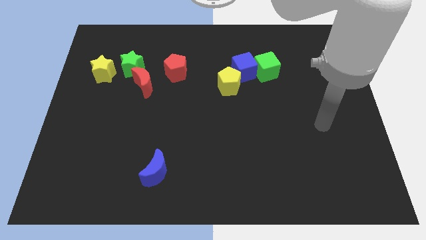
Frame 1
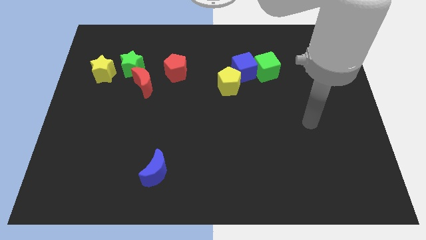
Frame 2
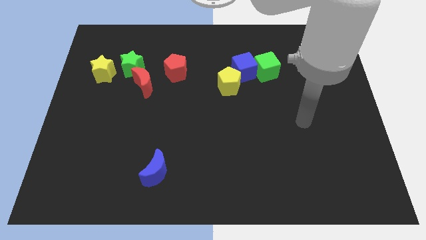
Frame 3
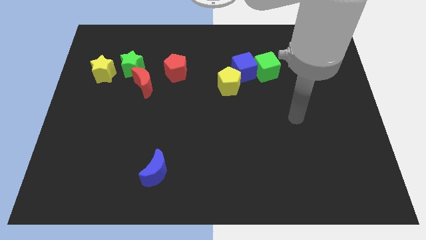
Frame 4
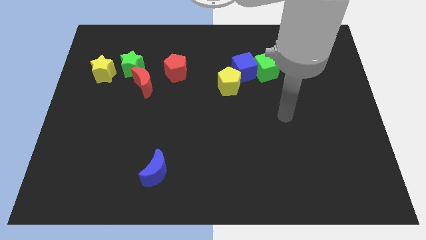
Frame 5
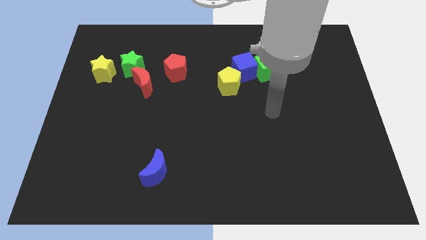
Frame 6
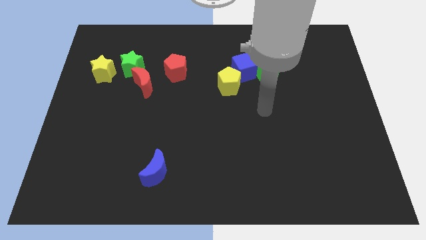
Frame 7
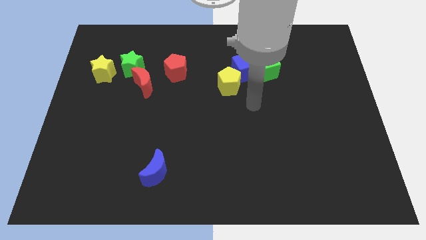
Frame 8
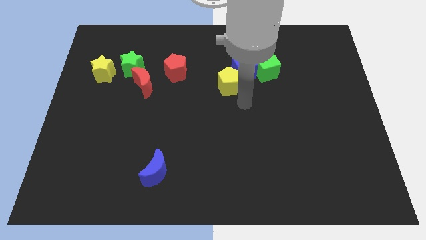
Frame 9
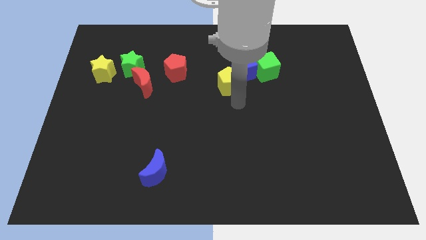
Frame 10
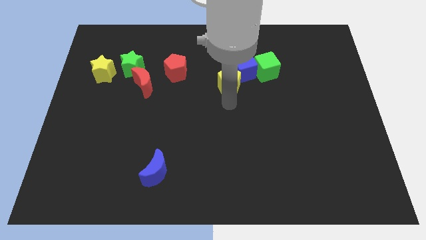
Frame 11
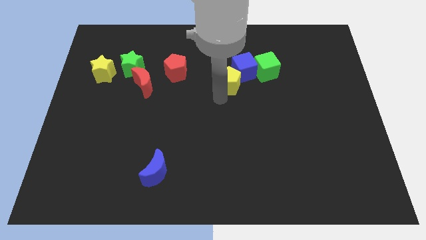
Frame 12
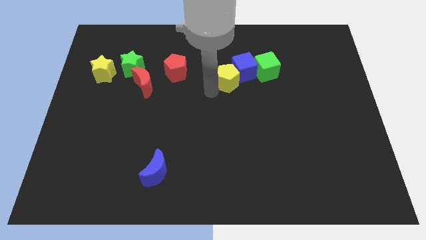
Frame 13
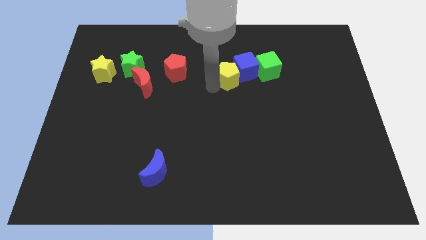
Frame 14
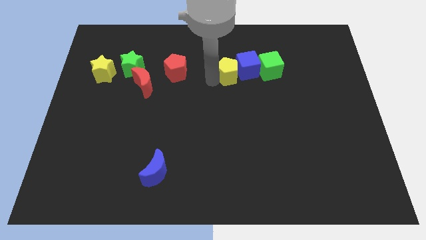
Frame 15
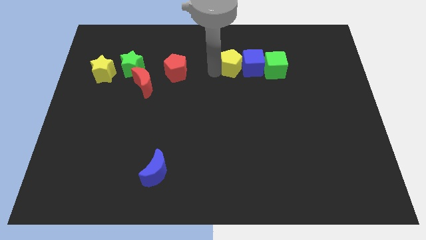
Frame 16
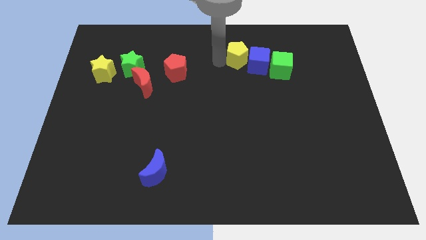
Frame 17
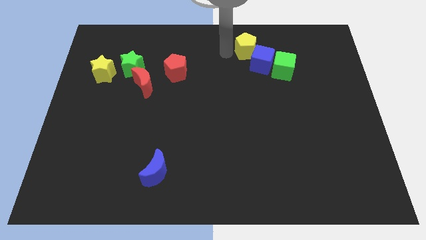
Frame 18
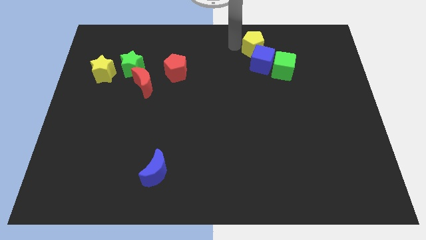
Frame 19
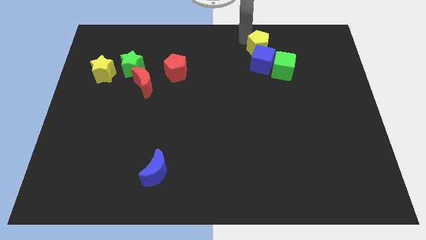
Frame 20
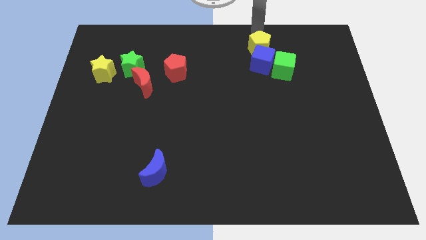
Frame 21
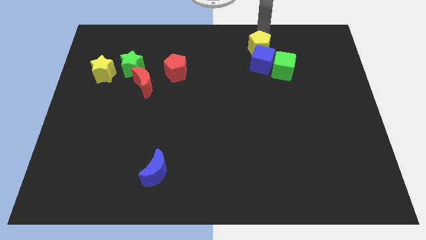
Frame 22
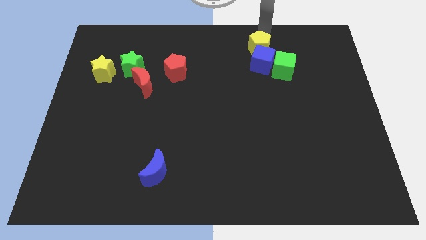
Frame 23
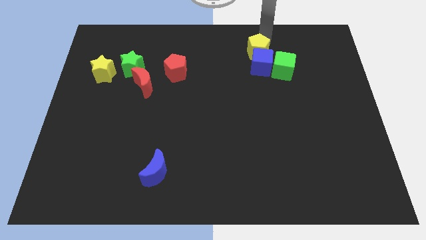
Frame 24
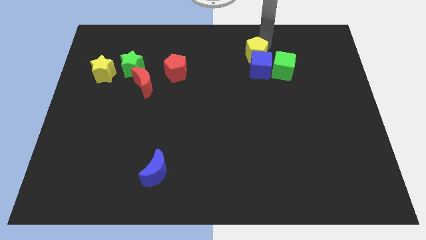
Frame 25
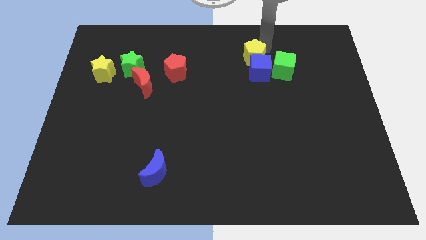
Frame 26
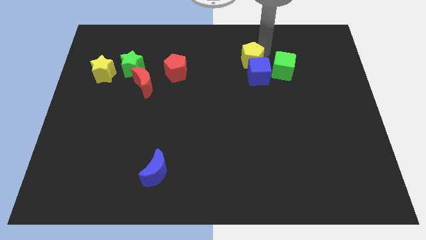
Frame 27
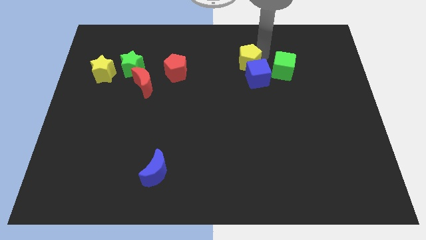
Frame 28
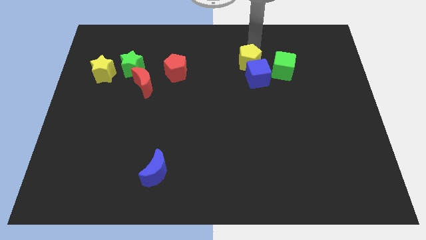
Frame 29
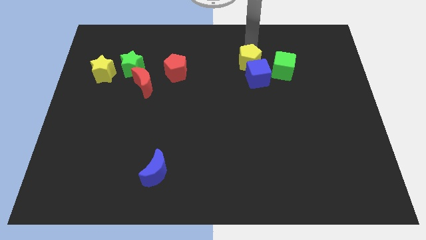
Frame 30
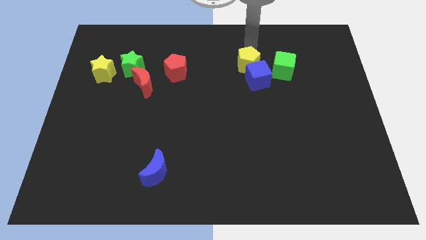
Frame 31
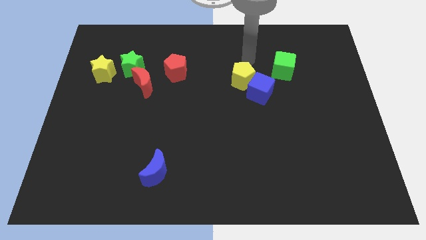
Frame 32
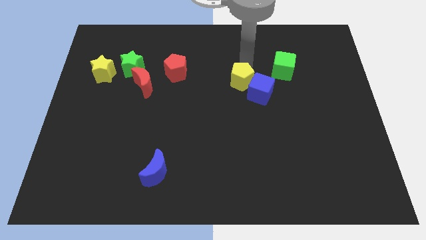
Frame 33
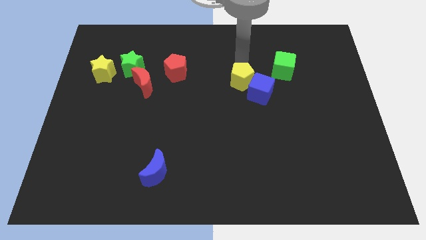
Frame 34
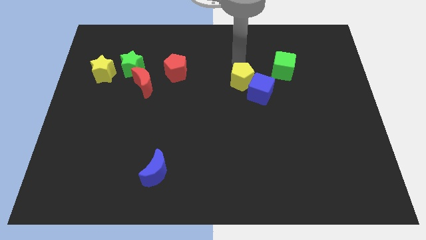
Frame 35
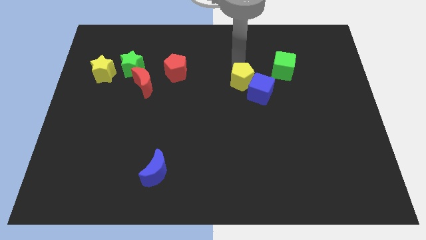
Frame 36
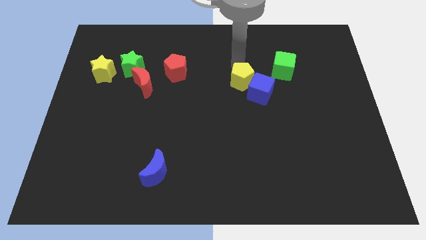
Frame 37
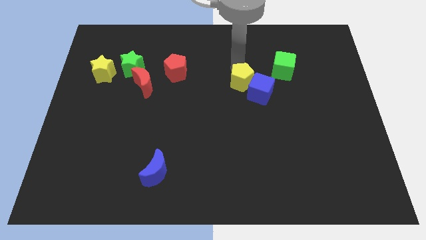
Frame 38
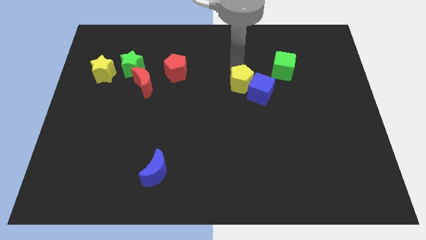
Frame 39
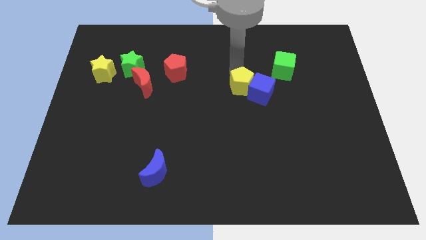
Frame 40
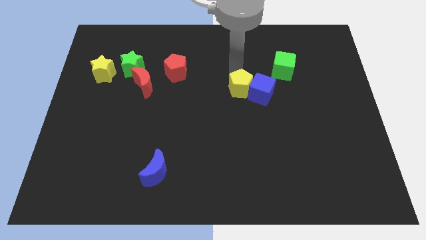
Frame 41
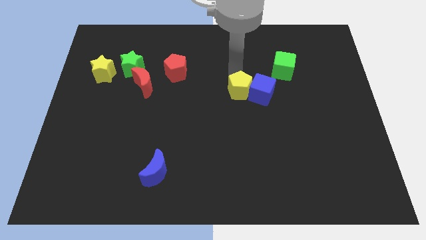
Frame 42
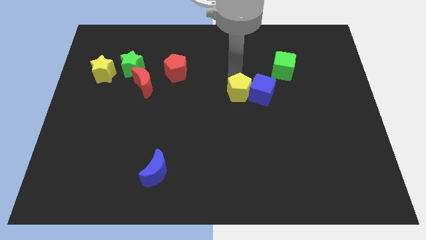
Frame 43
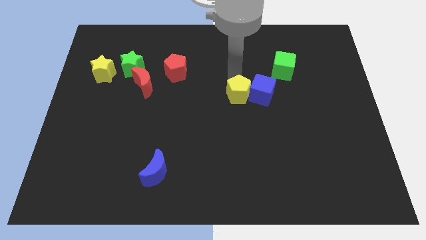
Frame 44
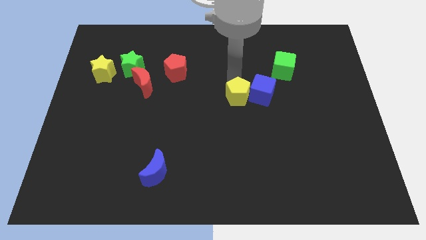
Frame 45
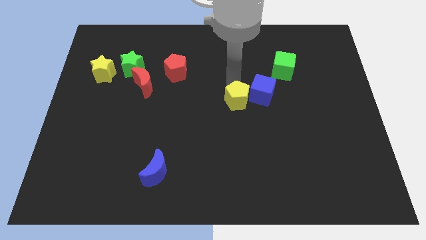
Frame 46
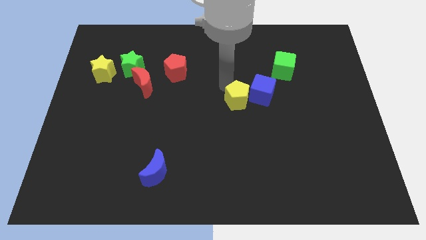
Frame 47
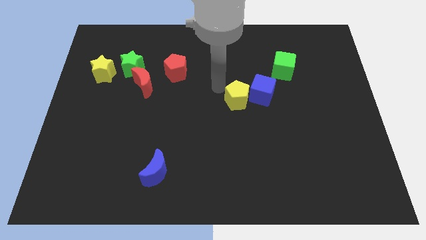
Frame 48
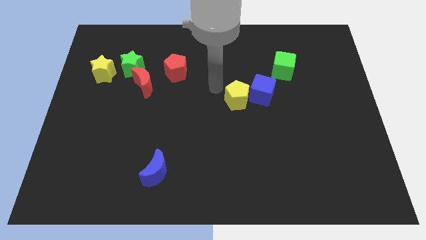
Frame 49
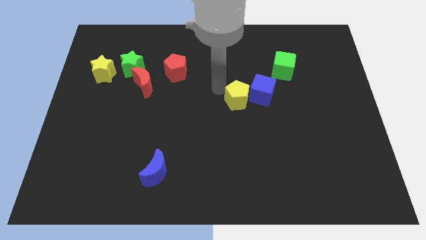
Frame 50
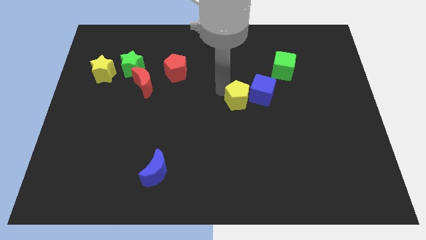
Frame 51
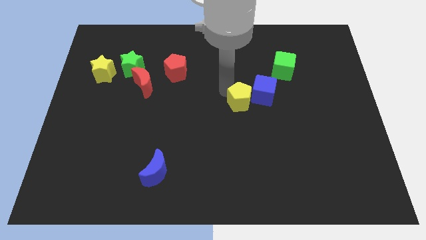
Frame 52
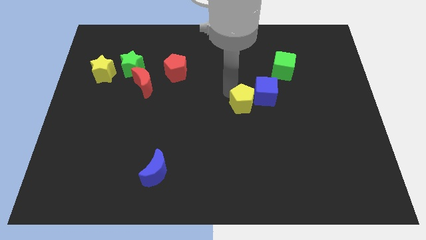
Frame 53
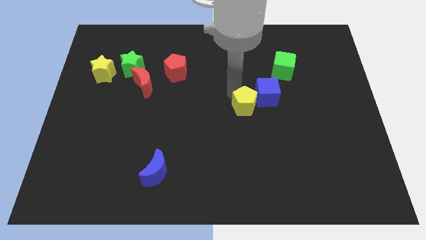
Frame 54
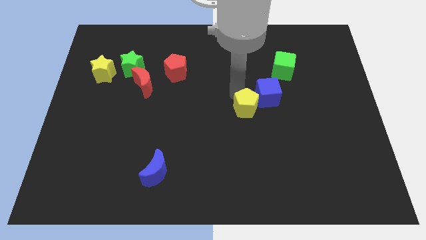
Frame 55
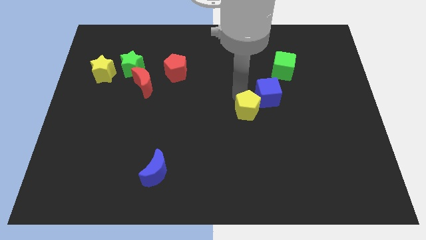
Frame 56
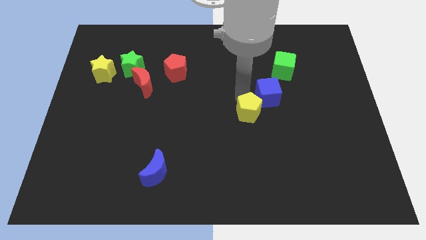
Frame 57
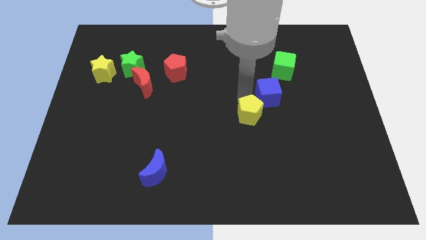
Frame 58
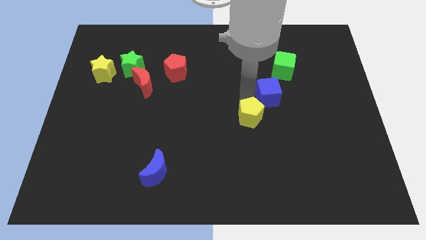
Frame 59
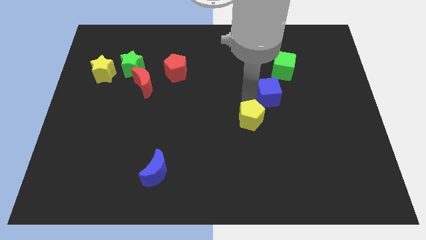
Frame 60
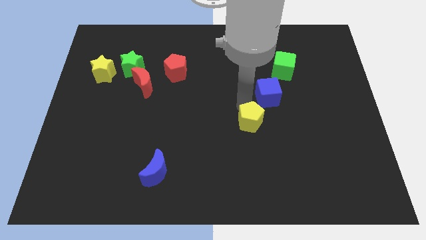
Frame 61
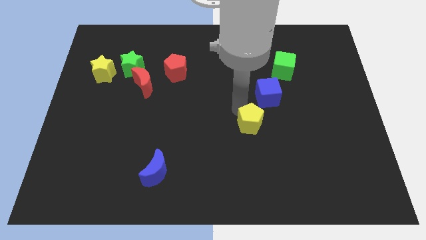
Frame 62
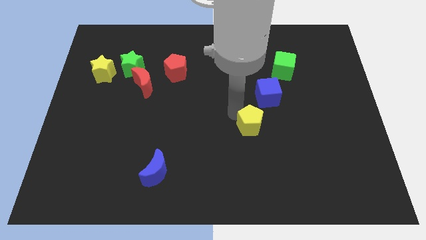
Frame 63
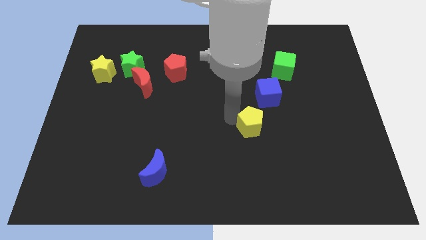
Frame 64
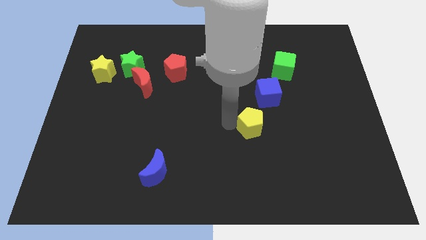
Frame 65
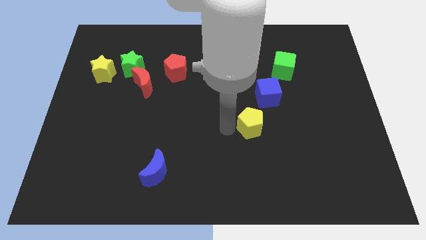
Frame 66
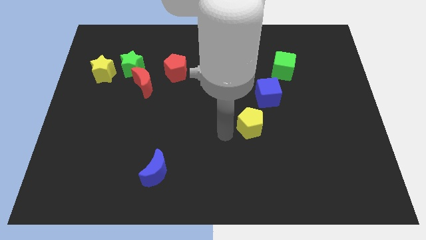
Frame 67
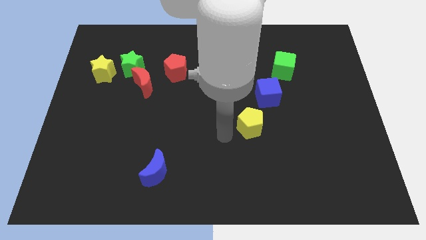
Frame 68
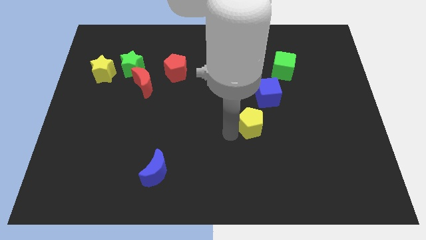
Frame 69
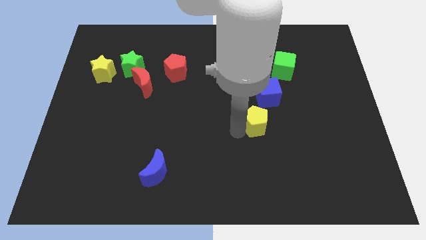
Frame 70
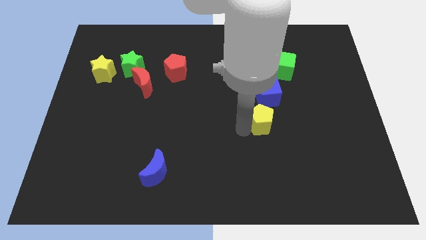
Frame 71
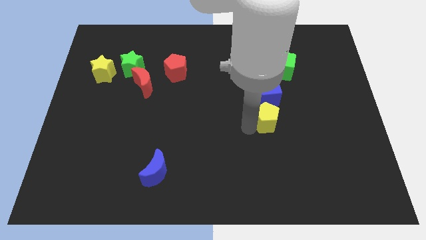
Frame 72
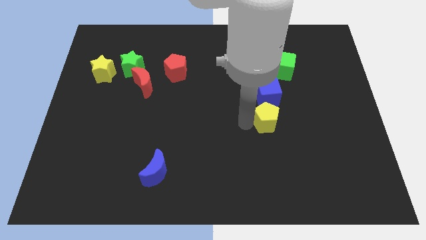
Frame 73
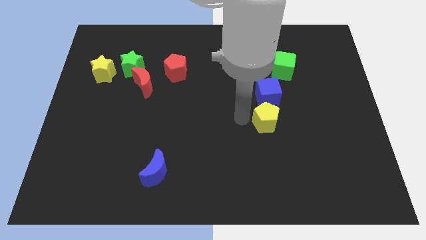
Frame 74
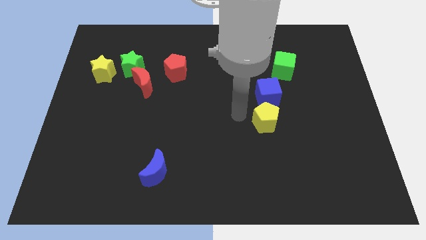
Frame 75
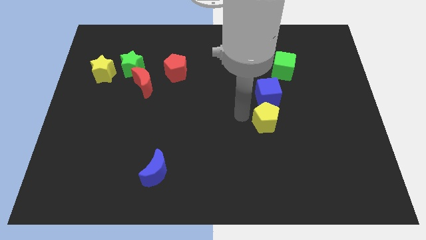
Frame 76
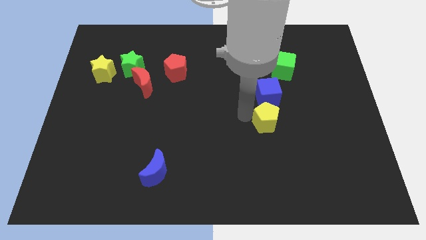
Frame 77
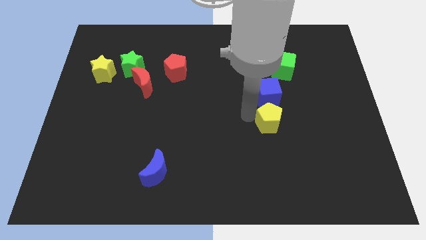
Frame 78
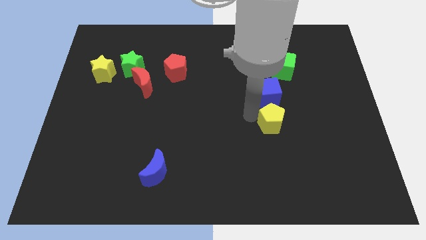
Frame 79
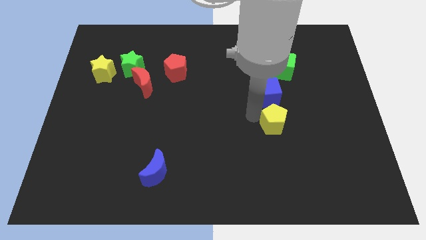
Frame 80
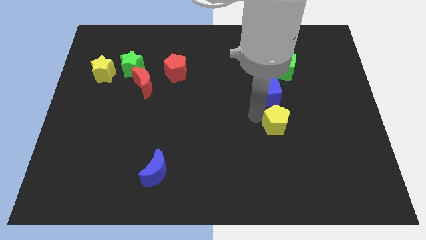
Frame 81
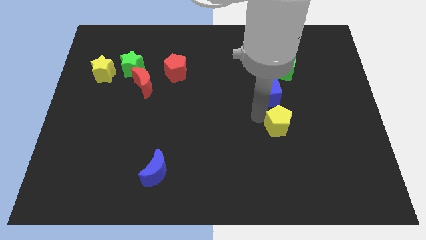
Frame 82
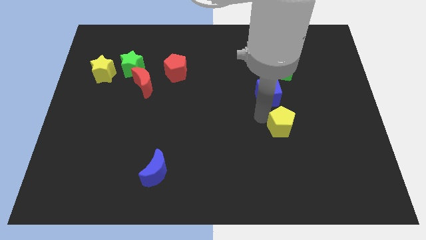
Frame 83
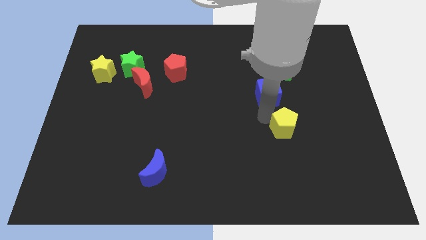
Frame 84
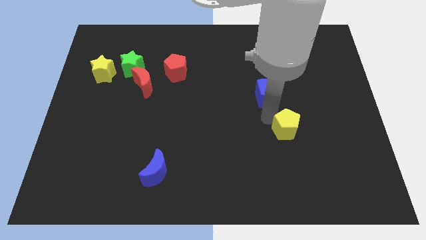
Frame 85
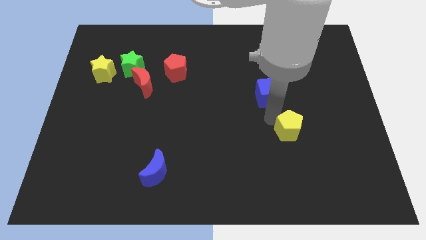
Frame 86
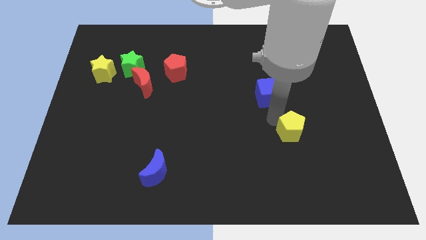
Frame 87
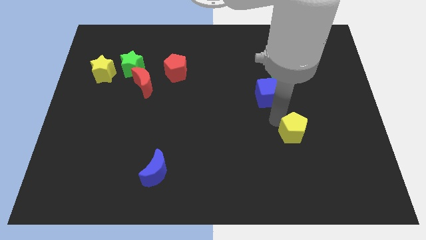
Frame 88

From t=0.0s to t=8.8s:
move the yellow pentagon downwards and right diagonally
